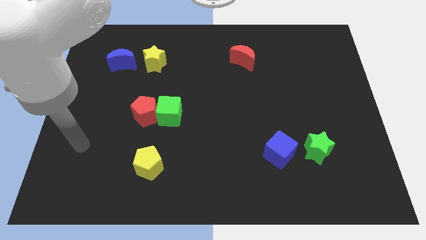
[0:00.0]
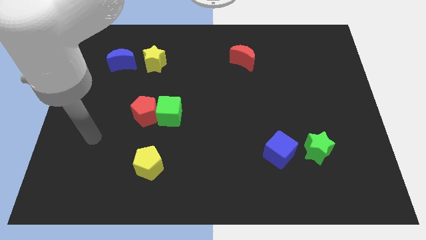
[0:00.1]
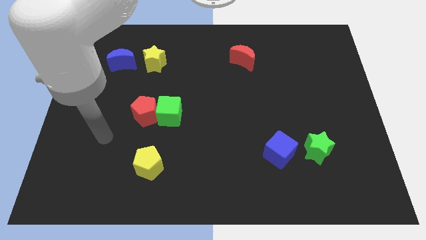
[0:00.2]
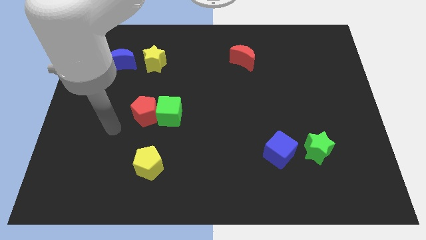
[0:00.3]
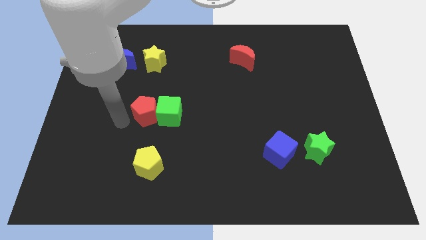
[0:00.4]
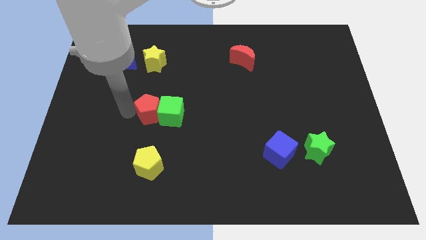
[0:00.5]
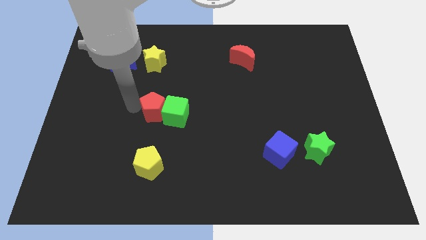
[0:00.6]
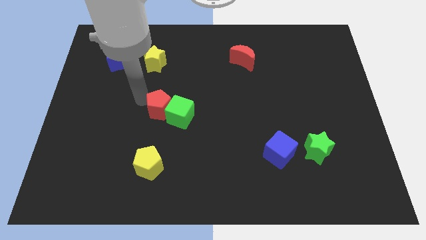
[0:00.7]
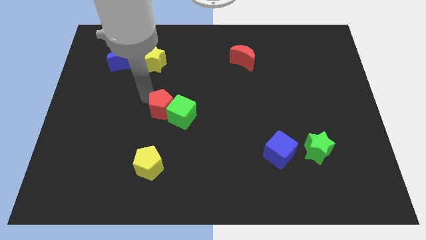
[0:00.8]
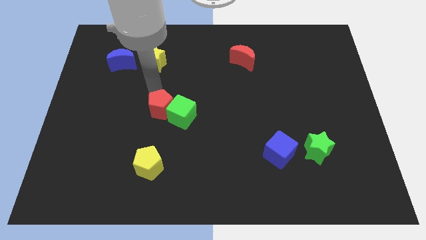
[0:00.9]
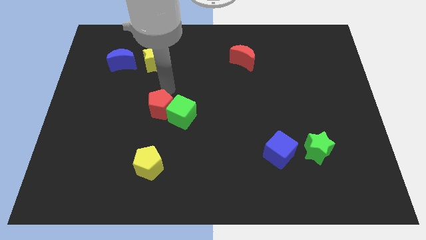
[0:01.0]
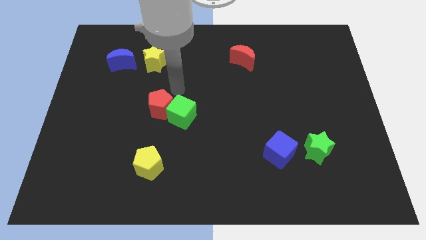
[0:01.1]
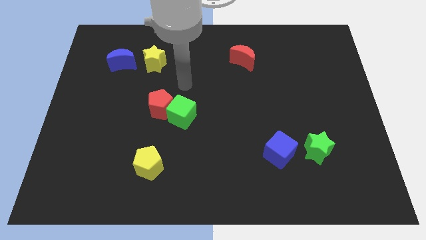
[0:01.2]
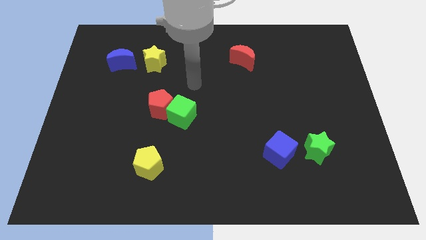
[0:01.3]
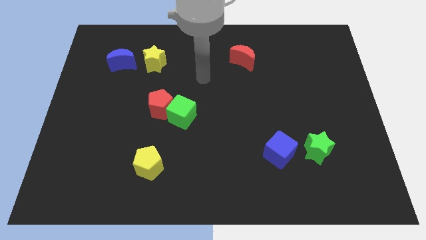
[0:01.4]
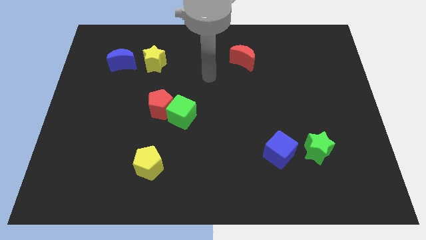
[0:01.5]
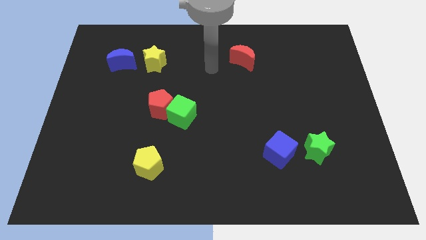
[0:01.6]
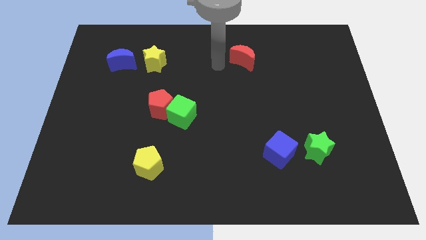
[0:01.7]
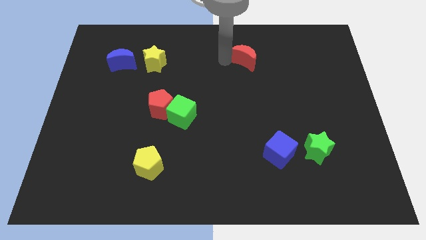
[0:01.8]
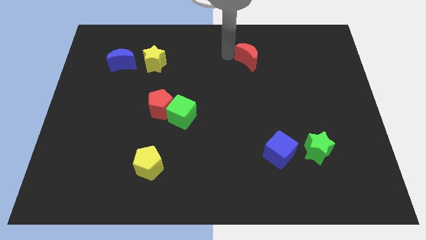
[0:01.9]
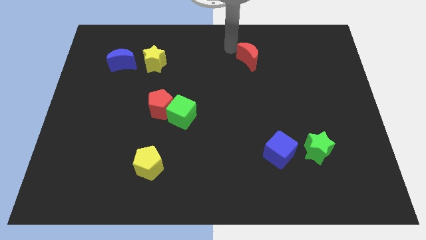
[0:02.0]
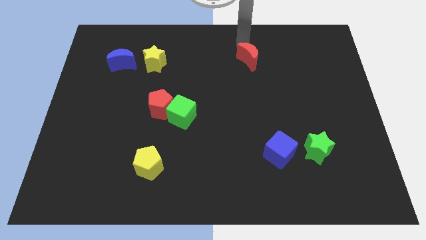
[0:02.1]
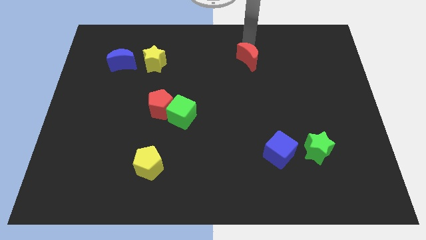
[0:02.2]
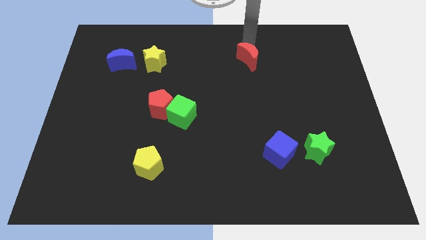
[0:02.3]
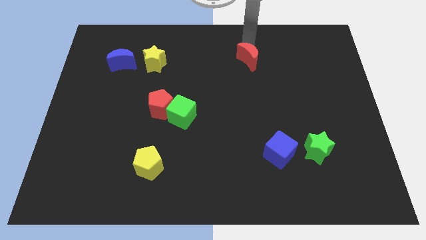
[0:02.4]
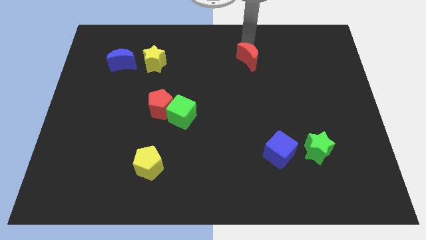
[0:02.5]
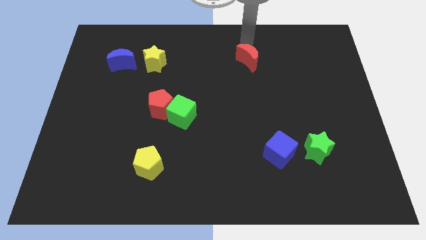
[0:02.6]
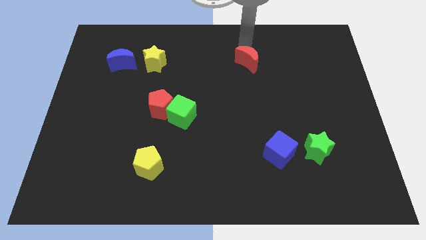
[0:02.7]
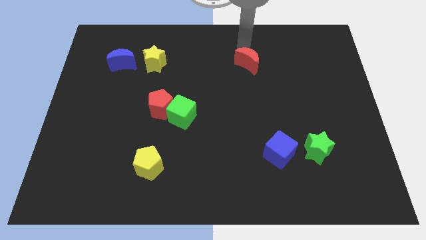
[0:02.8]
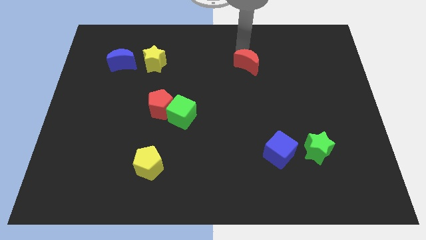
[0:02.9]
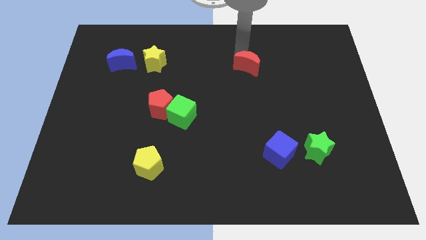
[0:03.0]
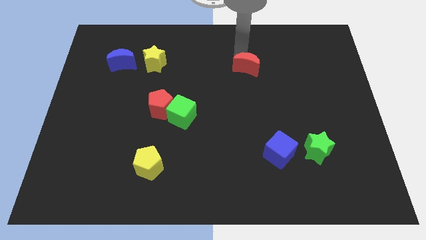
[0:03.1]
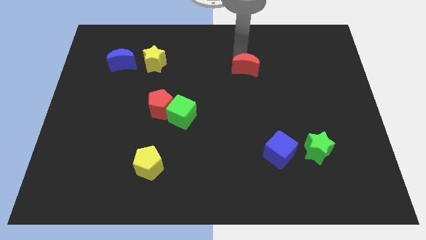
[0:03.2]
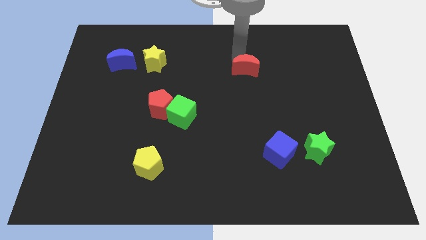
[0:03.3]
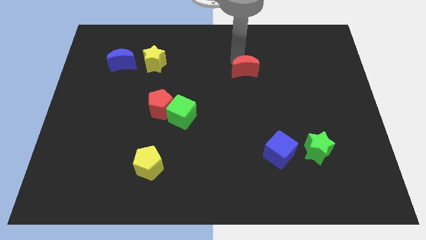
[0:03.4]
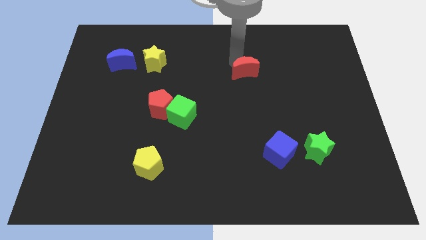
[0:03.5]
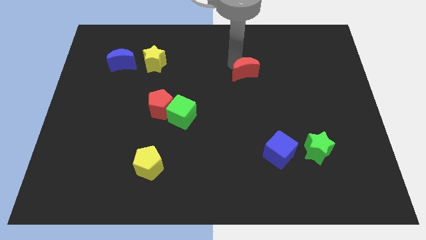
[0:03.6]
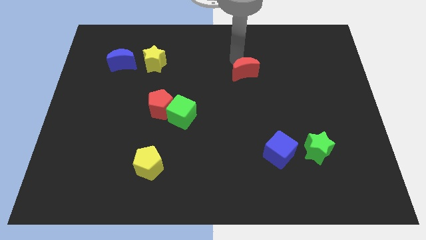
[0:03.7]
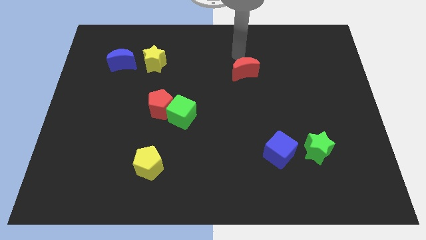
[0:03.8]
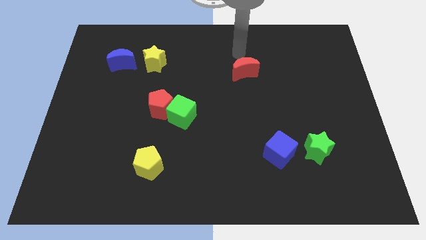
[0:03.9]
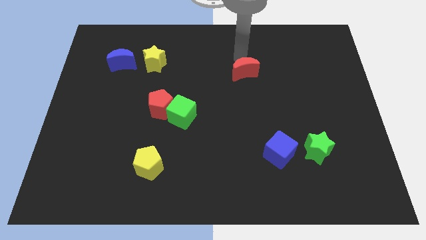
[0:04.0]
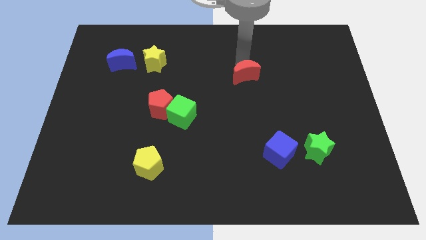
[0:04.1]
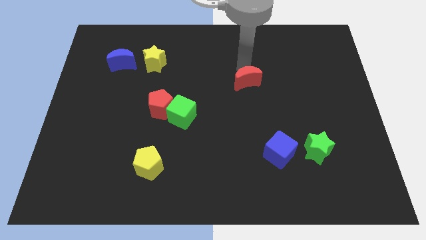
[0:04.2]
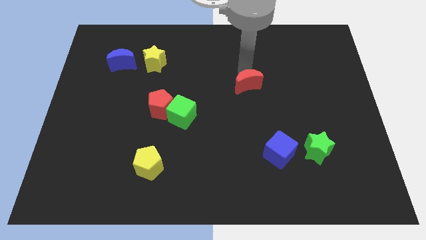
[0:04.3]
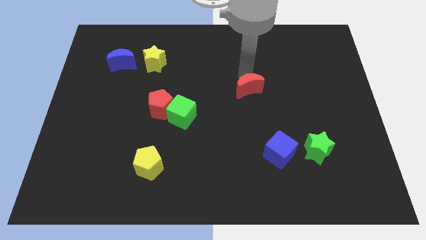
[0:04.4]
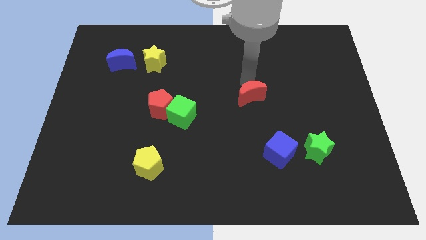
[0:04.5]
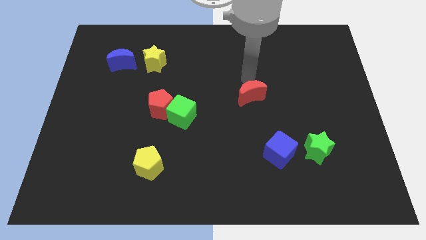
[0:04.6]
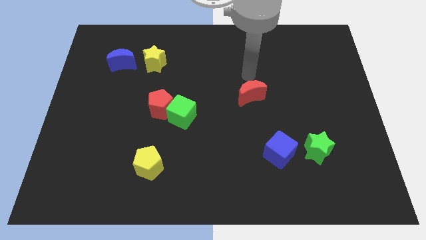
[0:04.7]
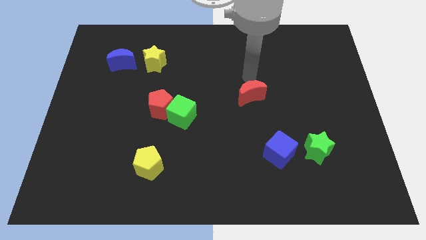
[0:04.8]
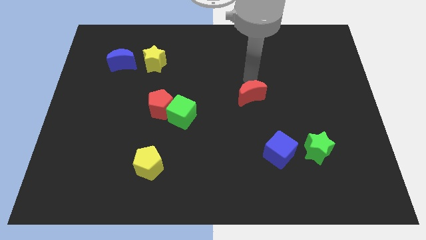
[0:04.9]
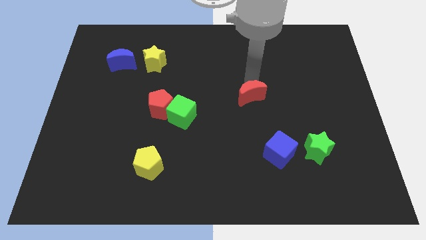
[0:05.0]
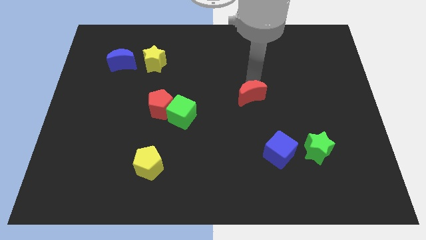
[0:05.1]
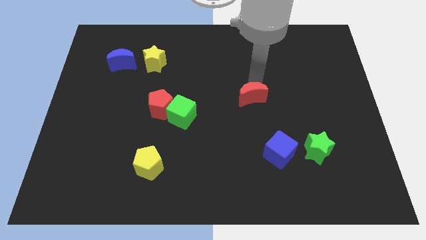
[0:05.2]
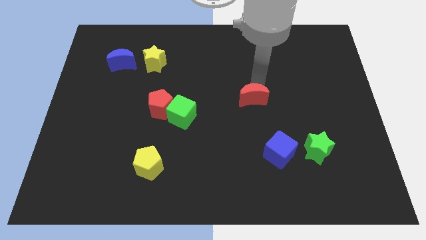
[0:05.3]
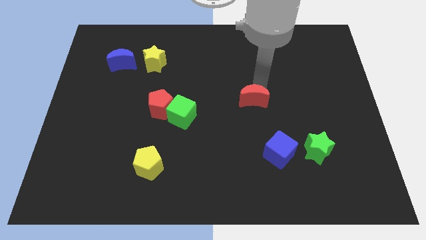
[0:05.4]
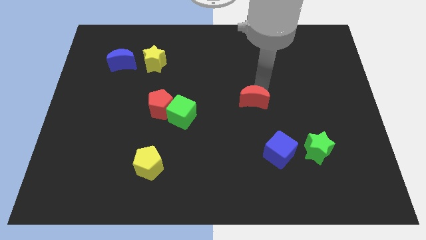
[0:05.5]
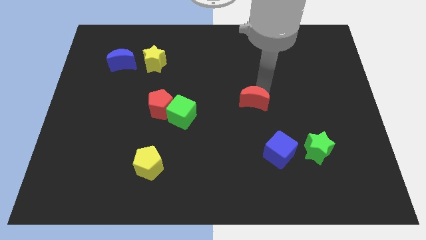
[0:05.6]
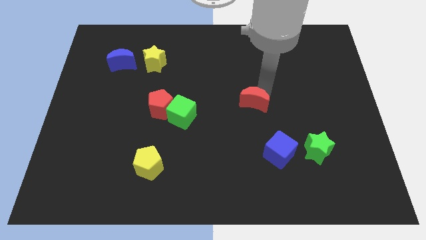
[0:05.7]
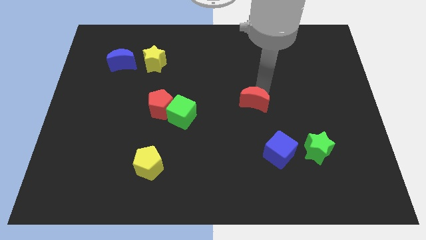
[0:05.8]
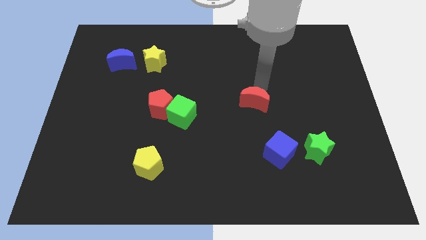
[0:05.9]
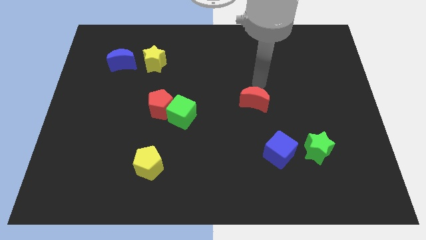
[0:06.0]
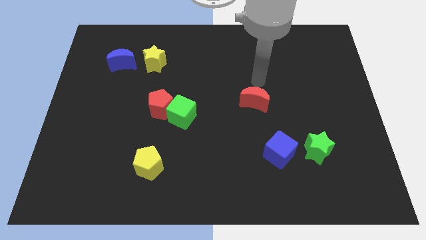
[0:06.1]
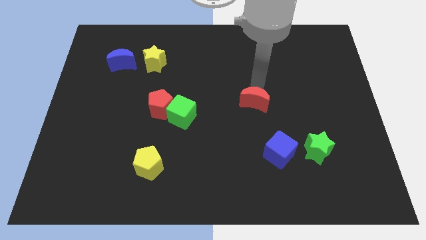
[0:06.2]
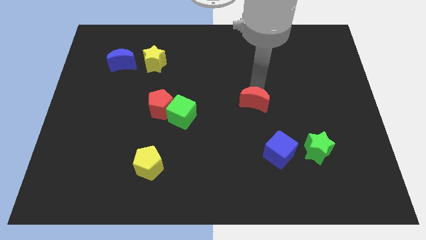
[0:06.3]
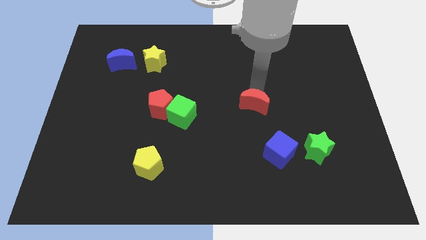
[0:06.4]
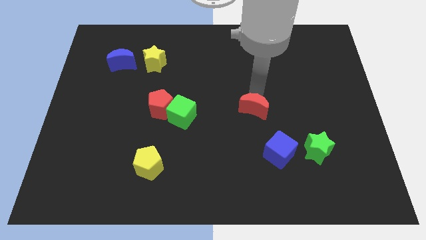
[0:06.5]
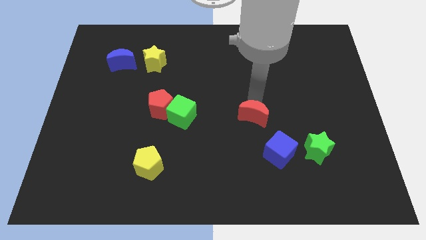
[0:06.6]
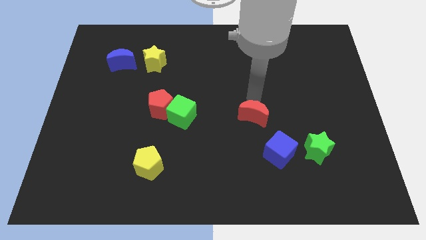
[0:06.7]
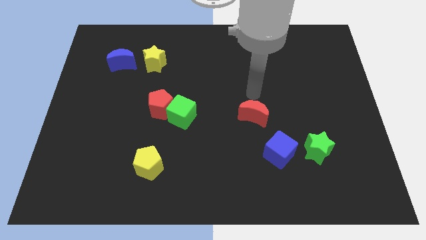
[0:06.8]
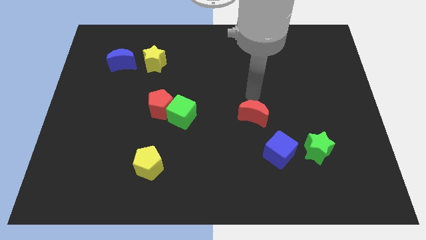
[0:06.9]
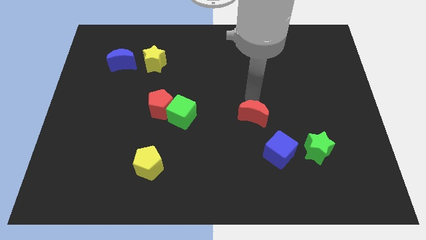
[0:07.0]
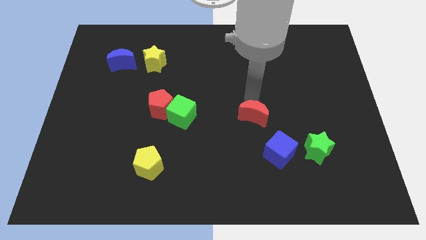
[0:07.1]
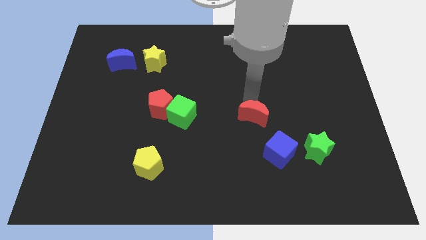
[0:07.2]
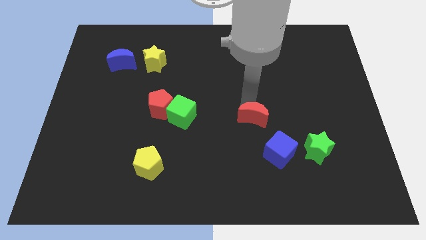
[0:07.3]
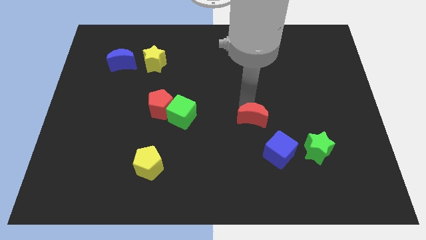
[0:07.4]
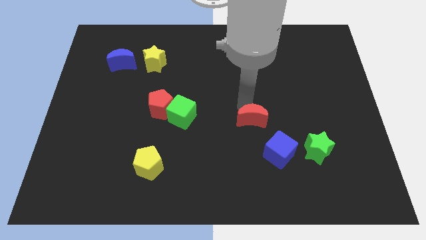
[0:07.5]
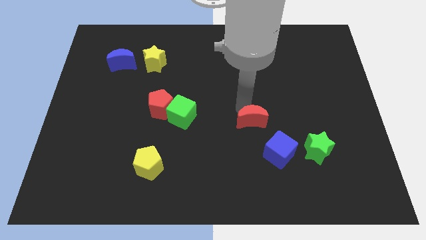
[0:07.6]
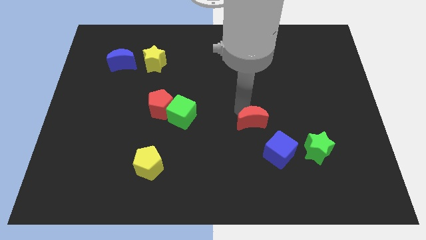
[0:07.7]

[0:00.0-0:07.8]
slide the red moon downwards

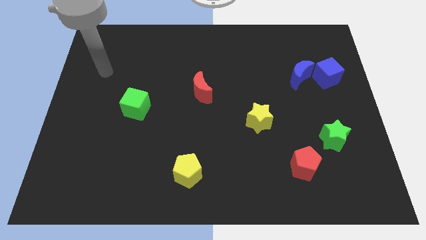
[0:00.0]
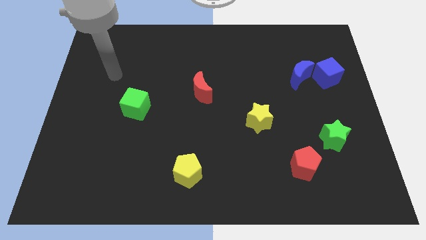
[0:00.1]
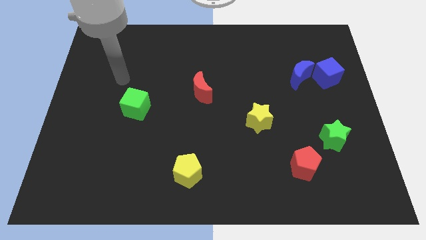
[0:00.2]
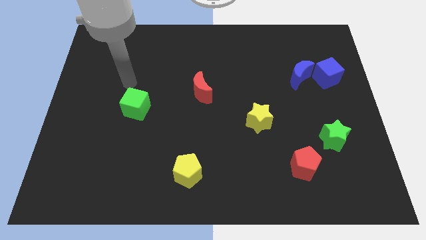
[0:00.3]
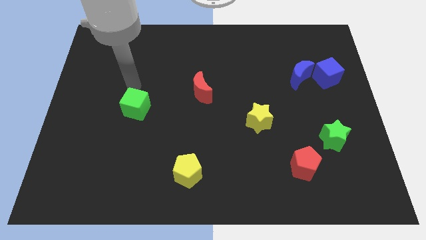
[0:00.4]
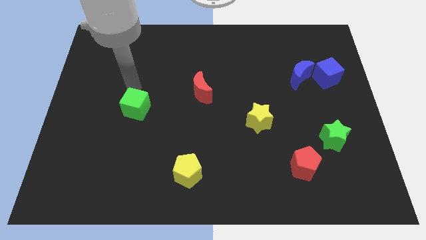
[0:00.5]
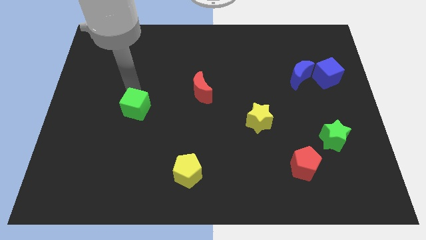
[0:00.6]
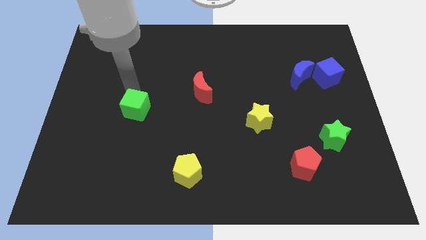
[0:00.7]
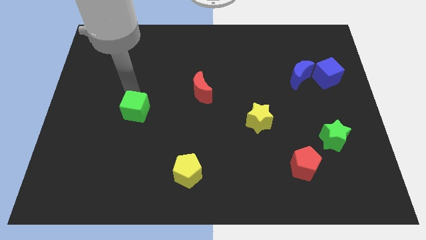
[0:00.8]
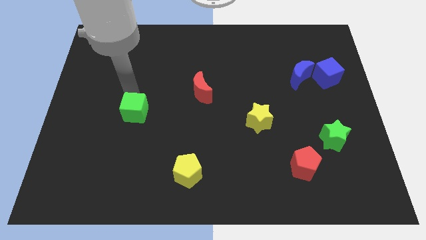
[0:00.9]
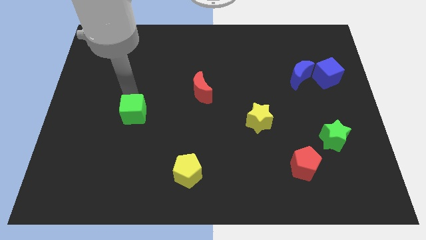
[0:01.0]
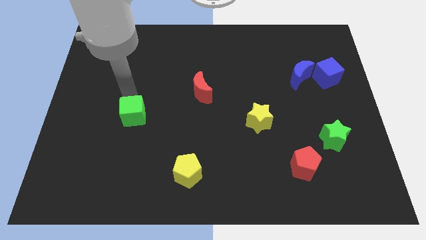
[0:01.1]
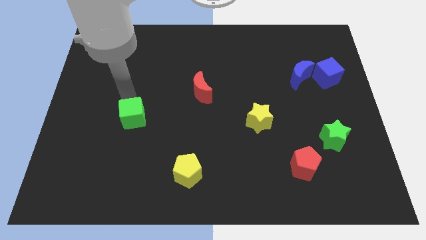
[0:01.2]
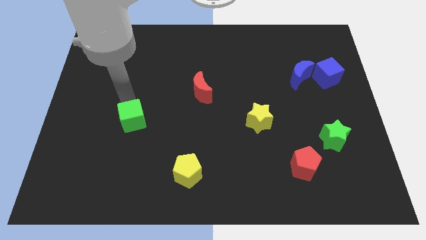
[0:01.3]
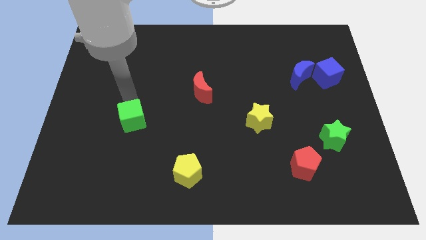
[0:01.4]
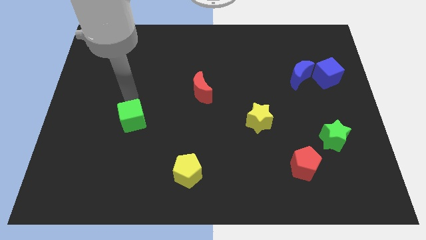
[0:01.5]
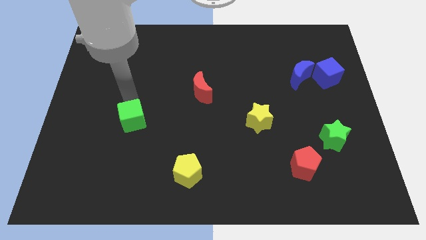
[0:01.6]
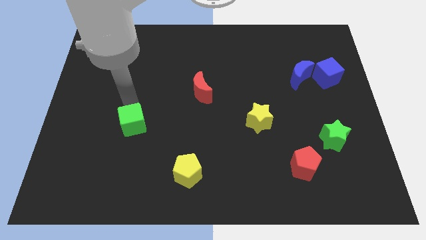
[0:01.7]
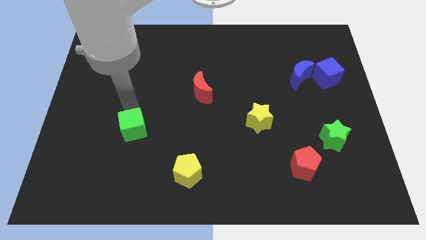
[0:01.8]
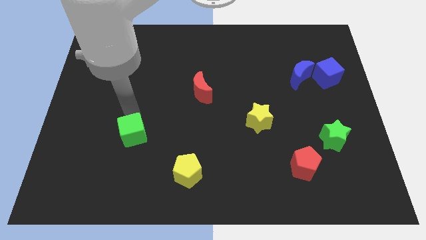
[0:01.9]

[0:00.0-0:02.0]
slide the green cube down somewhat
